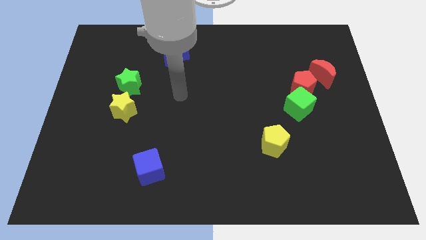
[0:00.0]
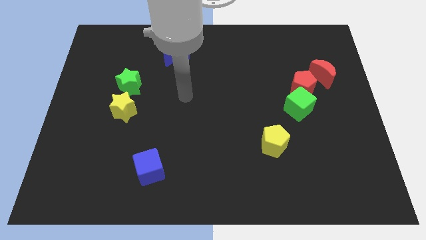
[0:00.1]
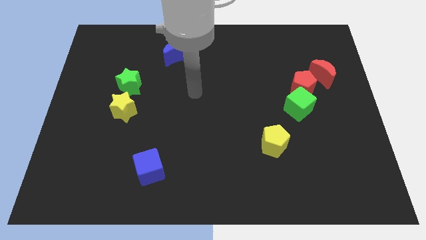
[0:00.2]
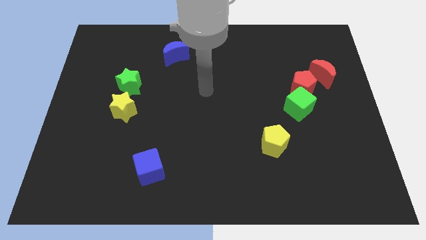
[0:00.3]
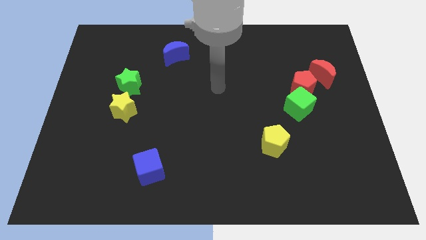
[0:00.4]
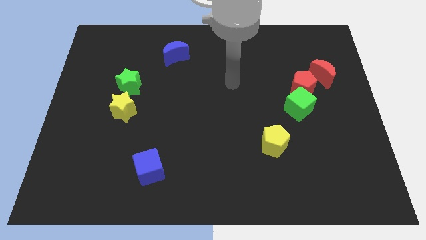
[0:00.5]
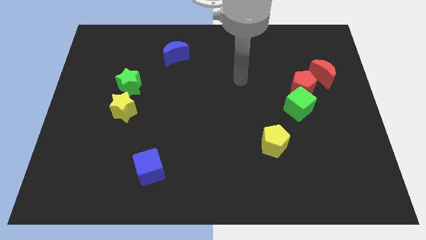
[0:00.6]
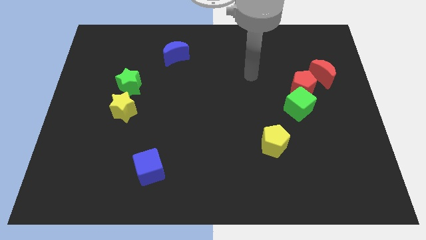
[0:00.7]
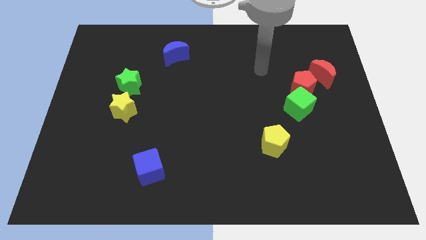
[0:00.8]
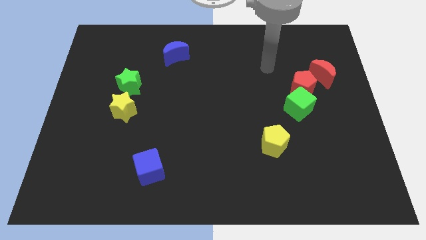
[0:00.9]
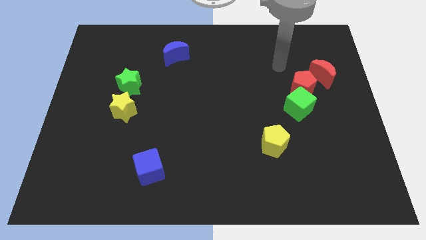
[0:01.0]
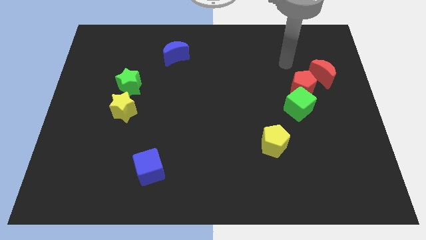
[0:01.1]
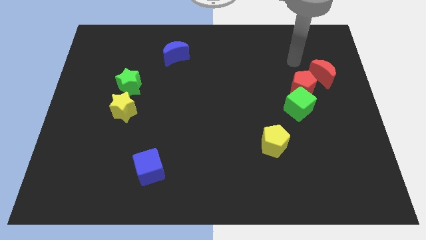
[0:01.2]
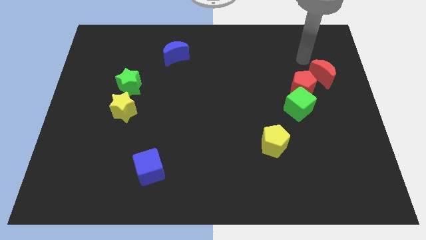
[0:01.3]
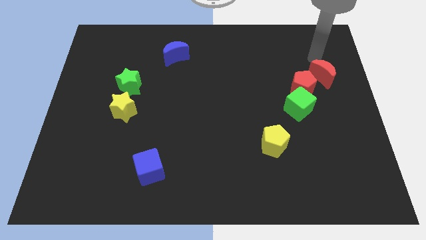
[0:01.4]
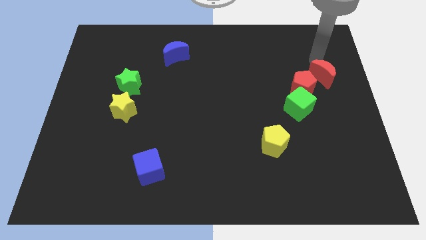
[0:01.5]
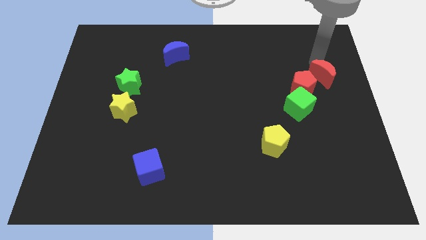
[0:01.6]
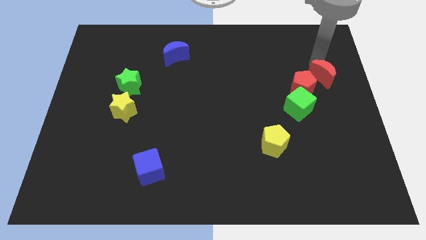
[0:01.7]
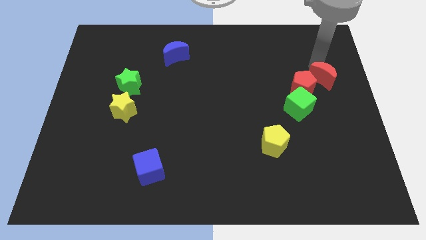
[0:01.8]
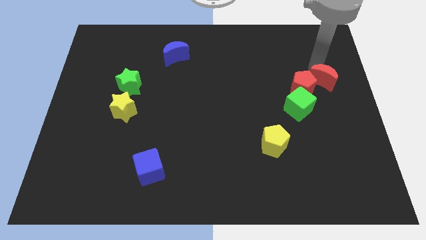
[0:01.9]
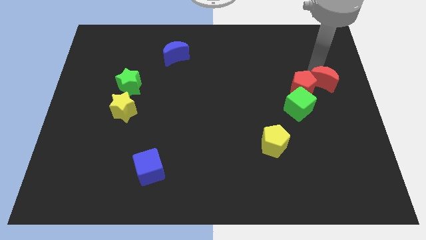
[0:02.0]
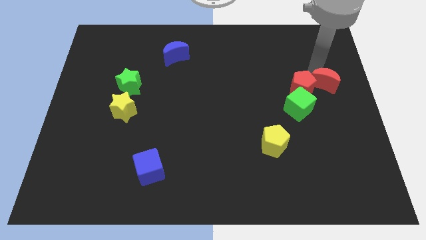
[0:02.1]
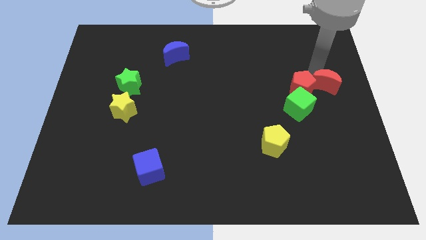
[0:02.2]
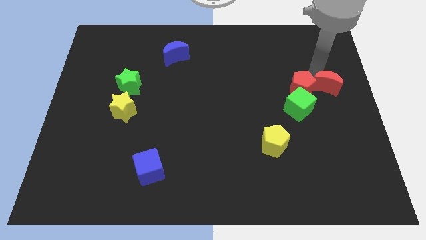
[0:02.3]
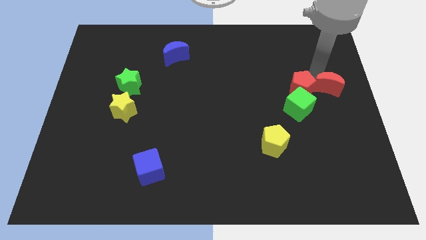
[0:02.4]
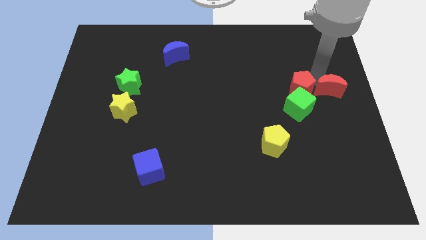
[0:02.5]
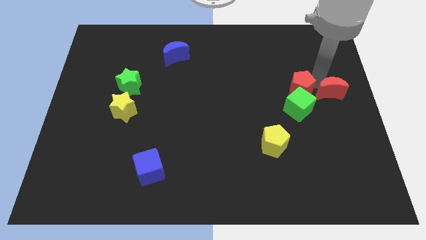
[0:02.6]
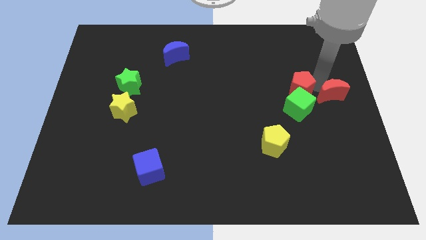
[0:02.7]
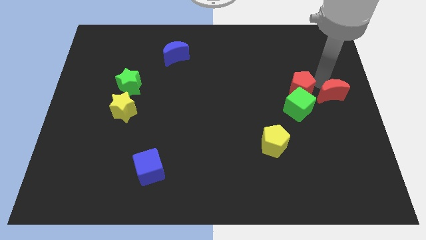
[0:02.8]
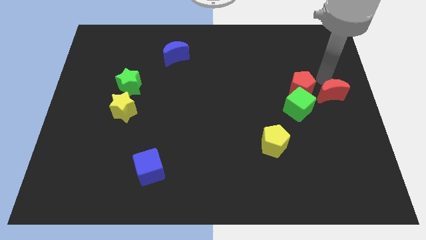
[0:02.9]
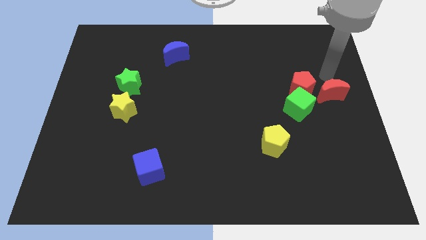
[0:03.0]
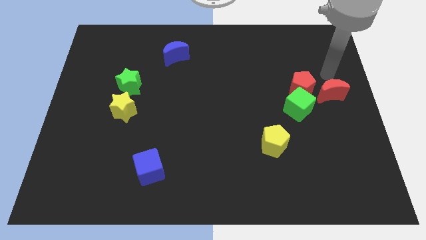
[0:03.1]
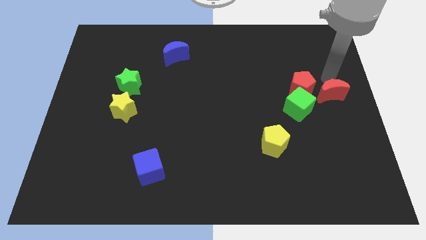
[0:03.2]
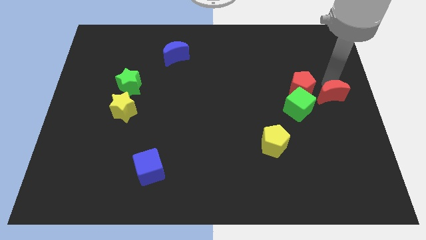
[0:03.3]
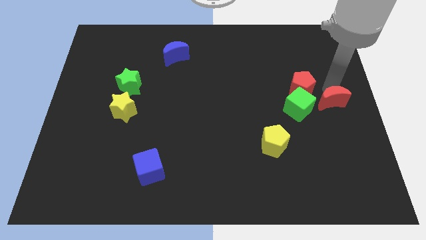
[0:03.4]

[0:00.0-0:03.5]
slightly slide the red moon downwards

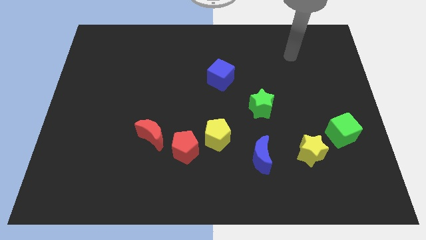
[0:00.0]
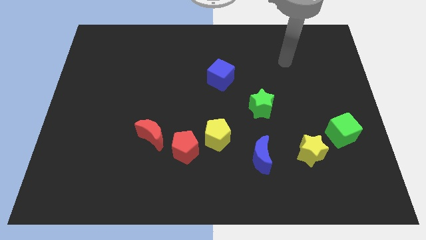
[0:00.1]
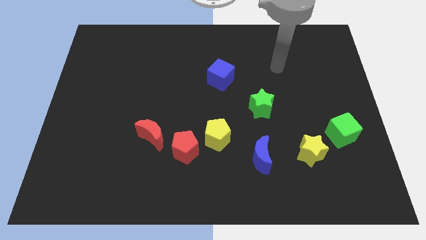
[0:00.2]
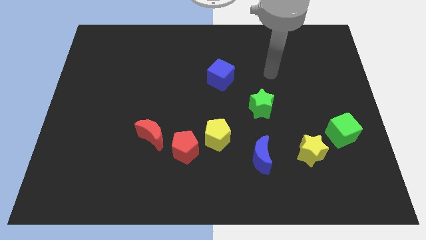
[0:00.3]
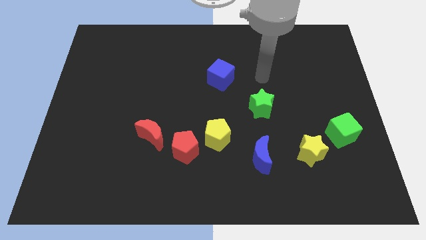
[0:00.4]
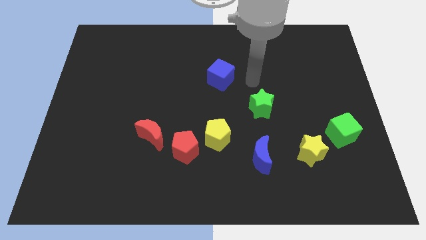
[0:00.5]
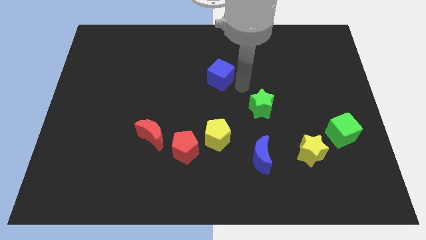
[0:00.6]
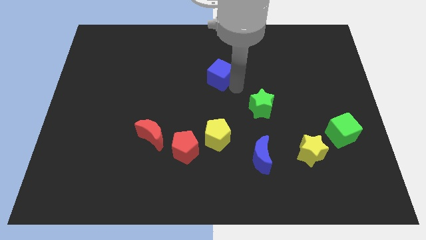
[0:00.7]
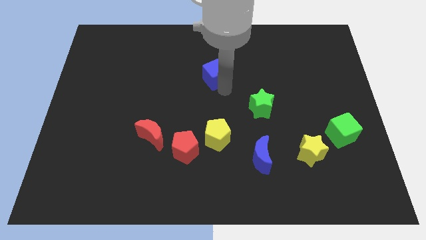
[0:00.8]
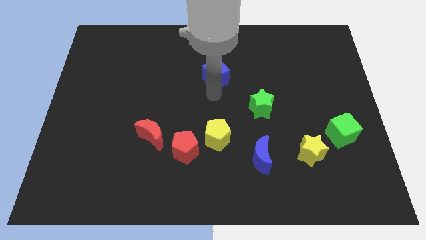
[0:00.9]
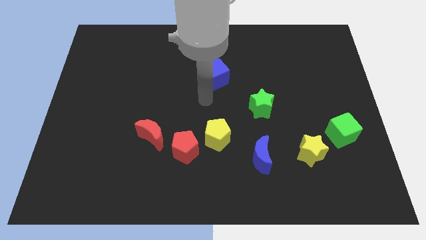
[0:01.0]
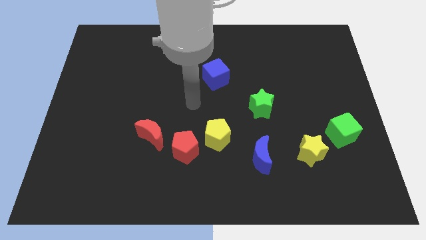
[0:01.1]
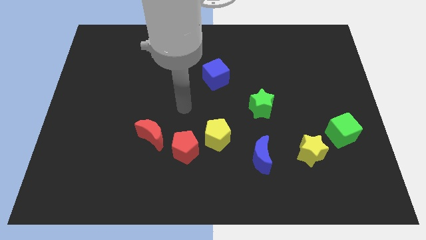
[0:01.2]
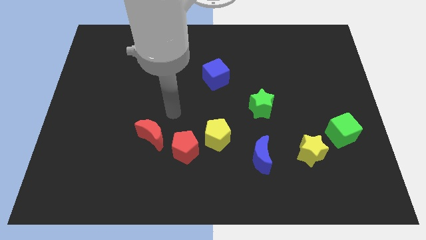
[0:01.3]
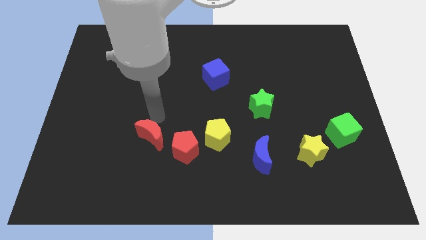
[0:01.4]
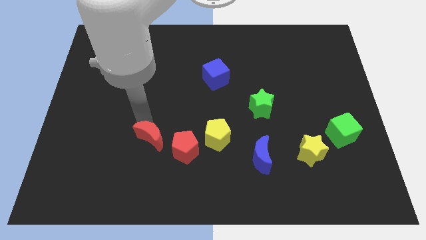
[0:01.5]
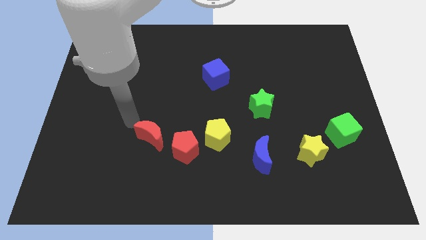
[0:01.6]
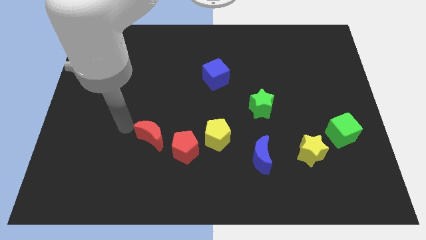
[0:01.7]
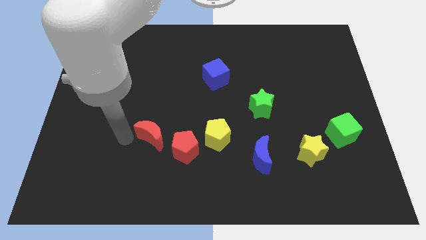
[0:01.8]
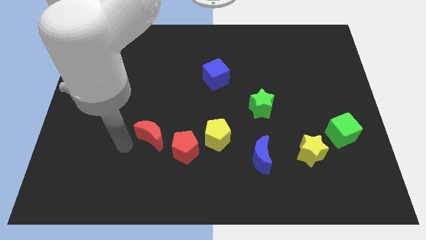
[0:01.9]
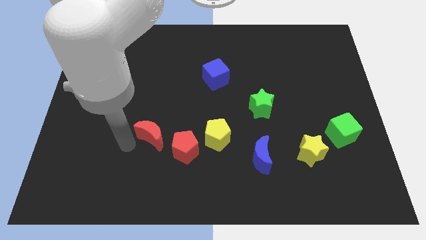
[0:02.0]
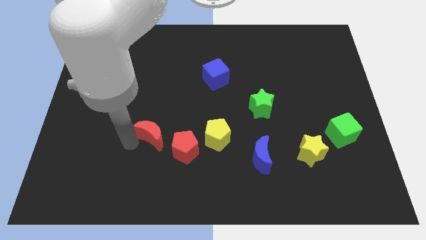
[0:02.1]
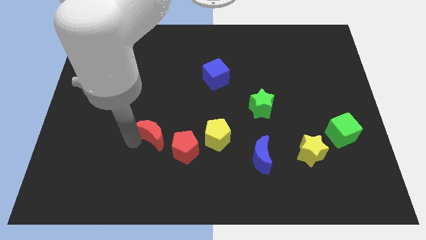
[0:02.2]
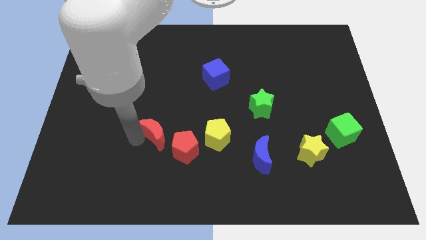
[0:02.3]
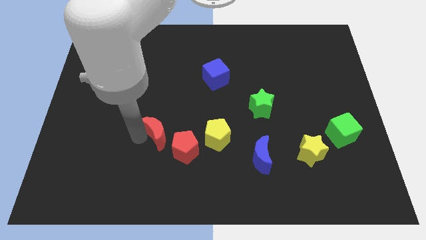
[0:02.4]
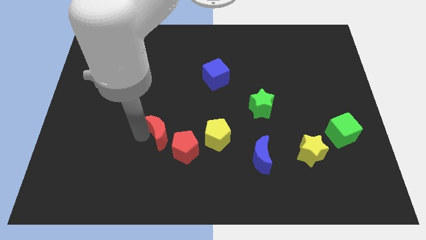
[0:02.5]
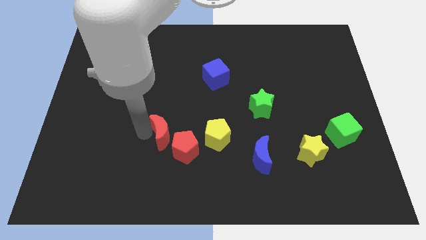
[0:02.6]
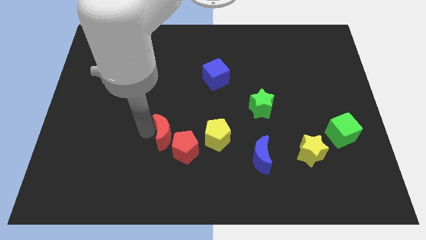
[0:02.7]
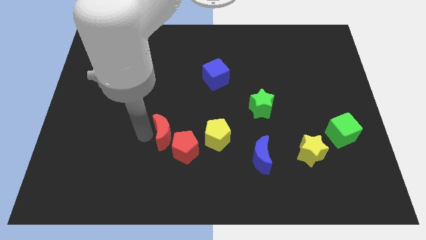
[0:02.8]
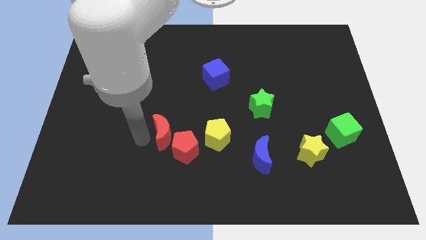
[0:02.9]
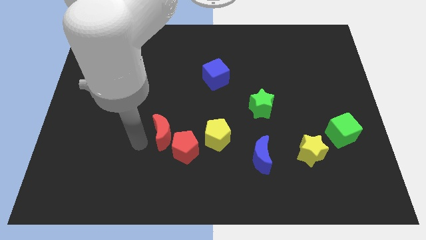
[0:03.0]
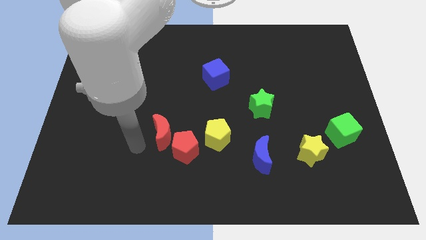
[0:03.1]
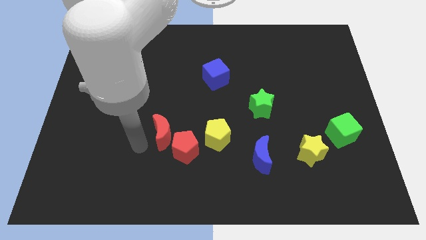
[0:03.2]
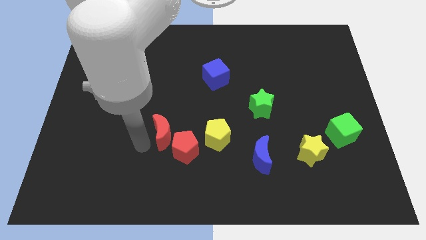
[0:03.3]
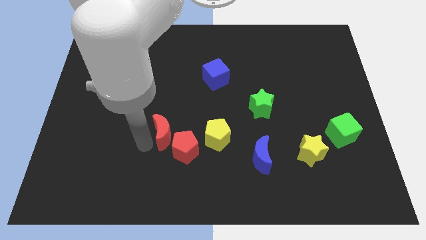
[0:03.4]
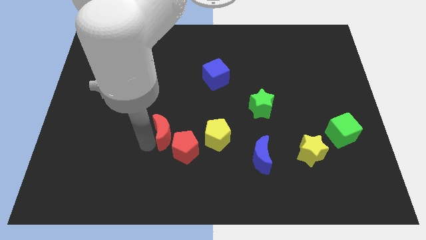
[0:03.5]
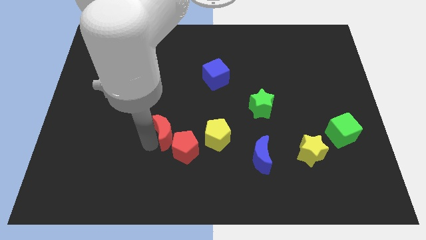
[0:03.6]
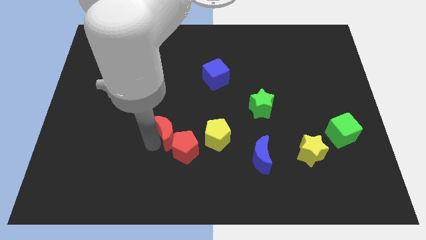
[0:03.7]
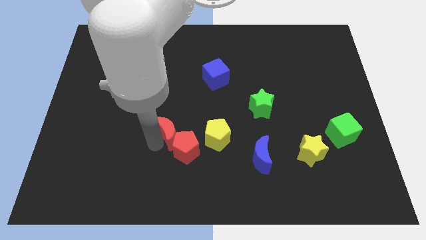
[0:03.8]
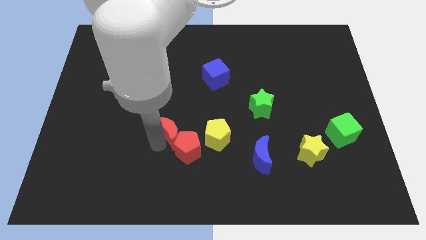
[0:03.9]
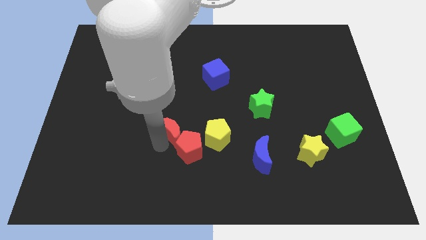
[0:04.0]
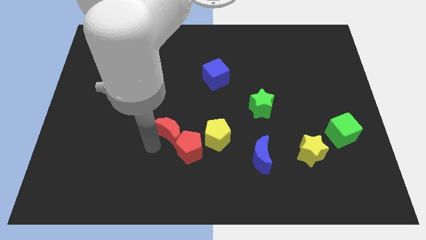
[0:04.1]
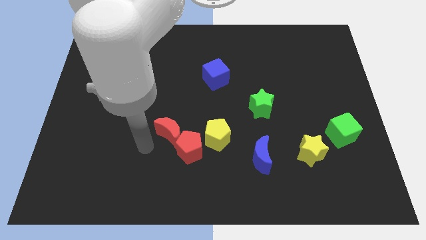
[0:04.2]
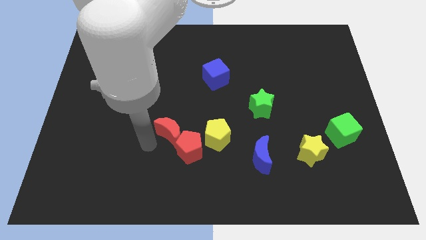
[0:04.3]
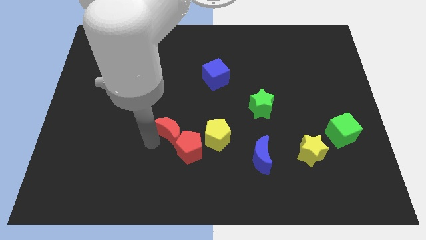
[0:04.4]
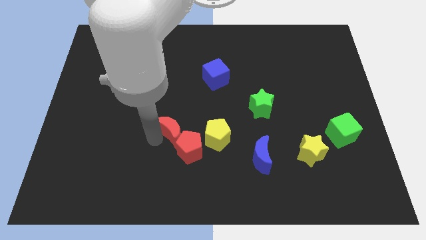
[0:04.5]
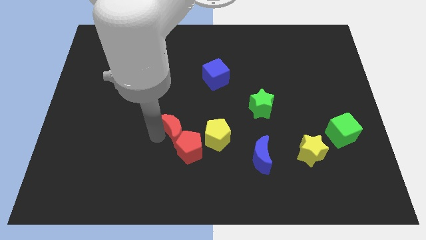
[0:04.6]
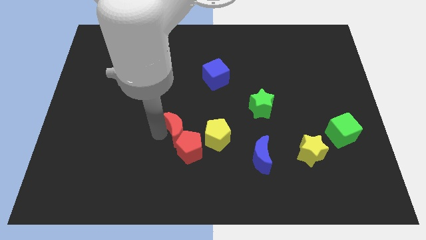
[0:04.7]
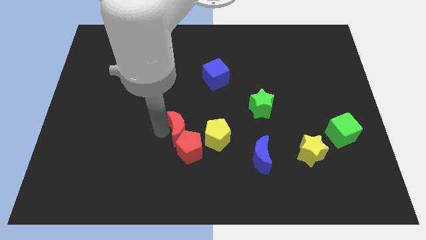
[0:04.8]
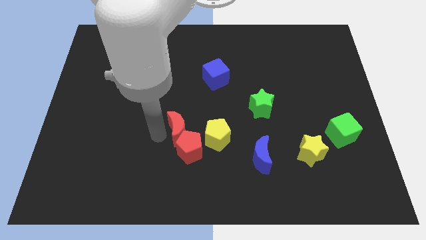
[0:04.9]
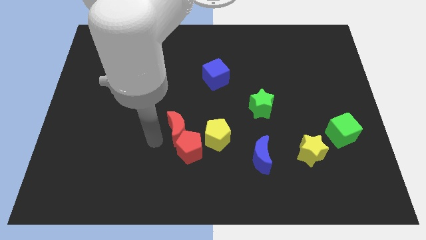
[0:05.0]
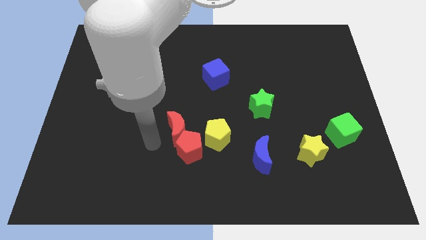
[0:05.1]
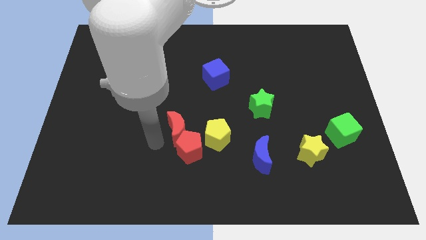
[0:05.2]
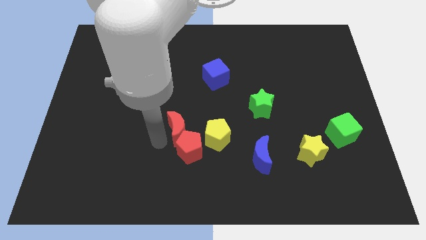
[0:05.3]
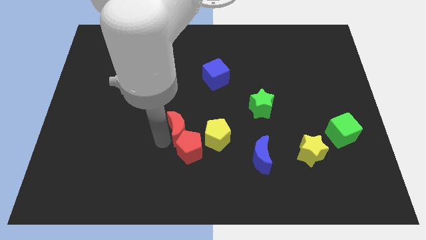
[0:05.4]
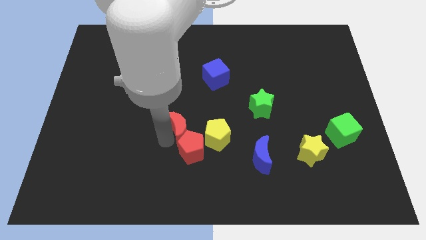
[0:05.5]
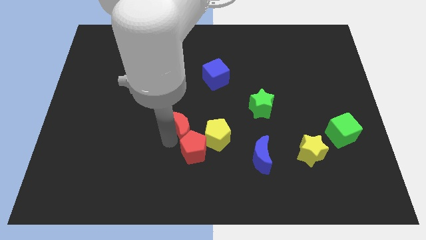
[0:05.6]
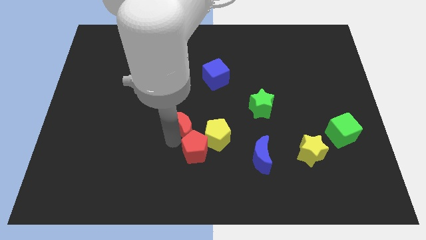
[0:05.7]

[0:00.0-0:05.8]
slightly slide the red moon right
